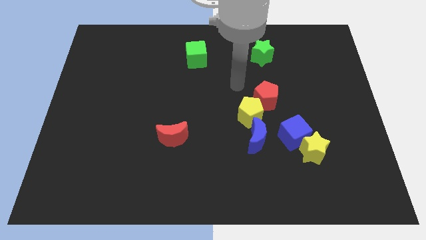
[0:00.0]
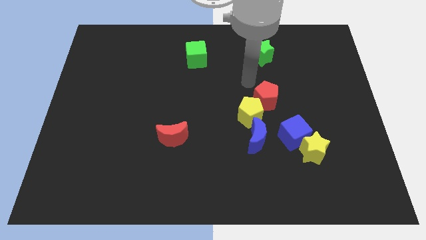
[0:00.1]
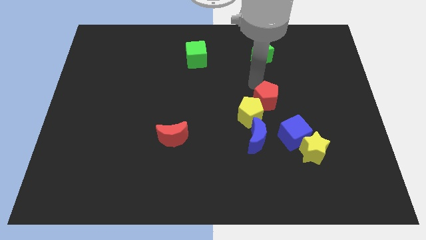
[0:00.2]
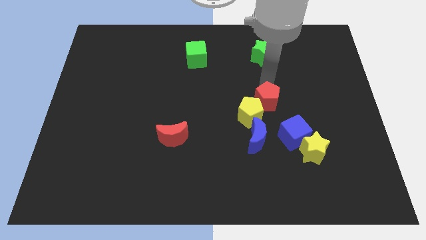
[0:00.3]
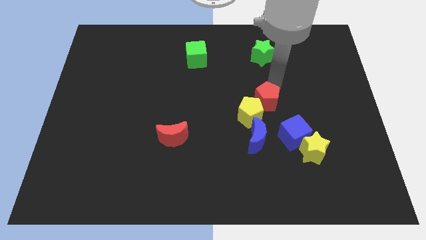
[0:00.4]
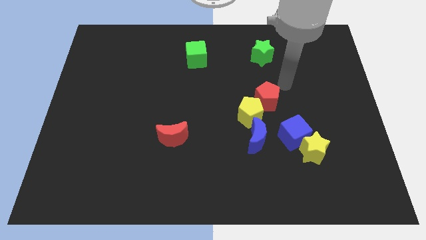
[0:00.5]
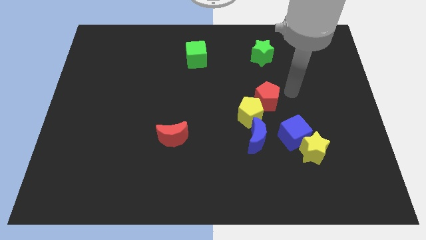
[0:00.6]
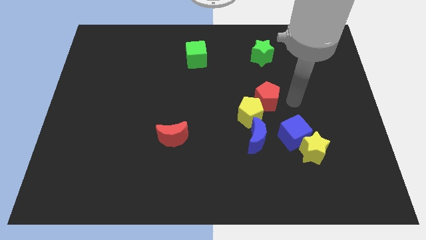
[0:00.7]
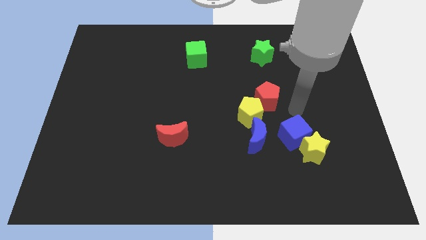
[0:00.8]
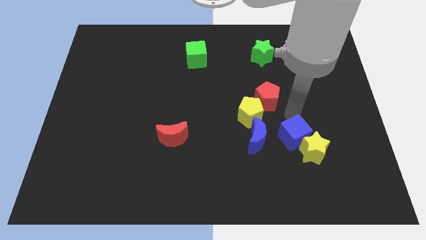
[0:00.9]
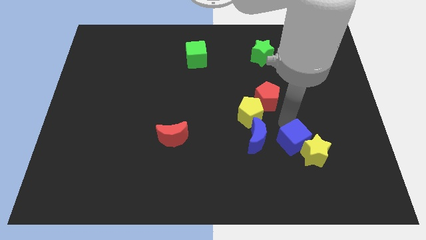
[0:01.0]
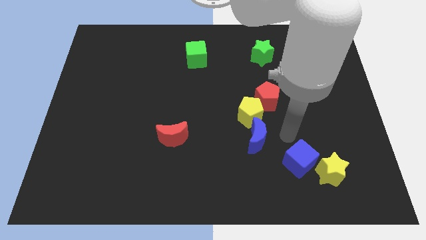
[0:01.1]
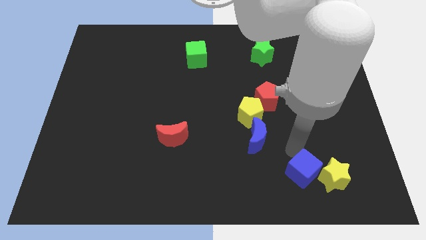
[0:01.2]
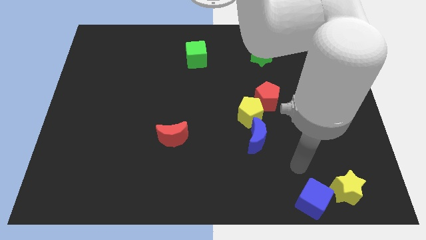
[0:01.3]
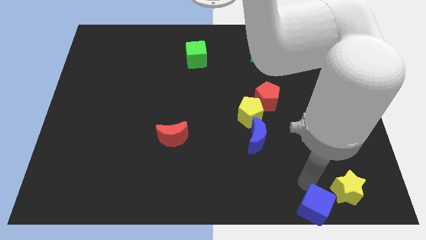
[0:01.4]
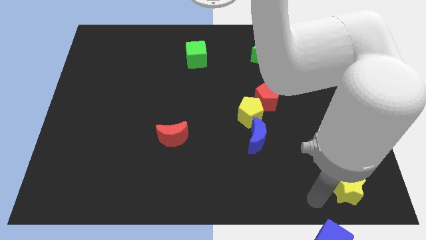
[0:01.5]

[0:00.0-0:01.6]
move the yellow star away from the blue cube

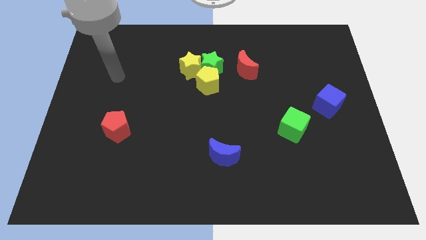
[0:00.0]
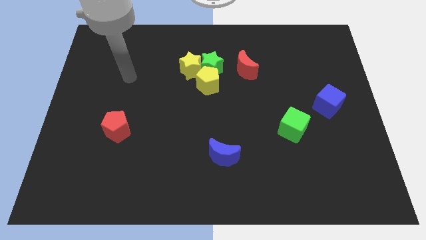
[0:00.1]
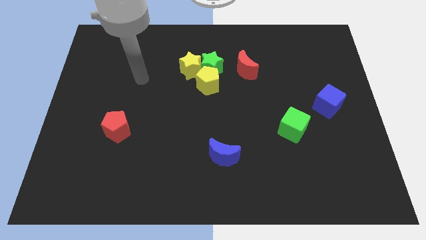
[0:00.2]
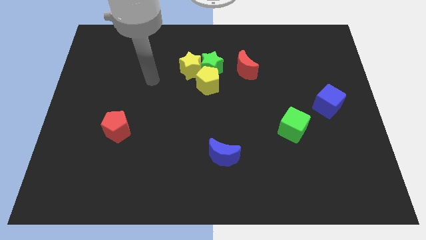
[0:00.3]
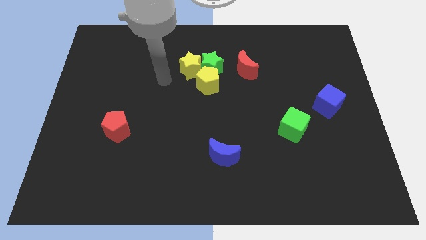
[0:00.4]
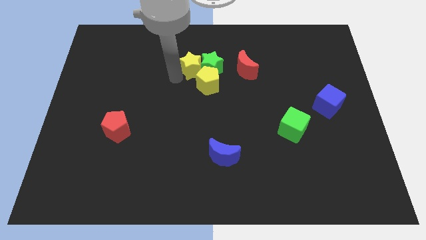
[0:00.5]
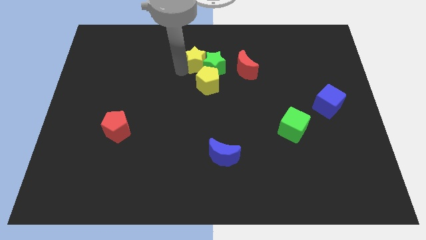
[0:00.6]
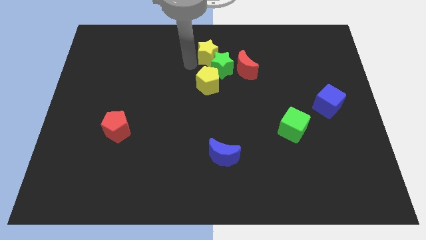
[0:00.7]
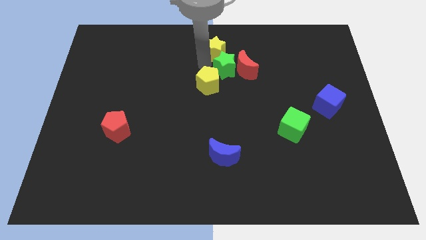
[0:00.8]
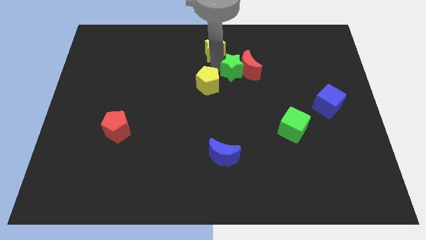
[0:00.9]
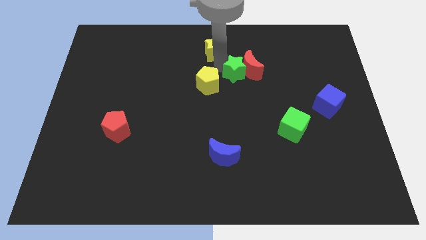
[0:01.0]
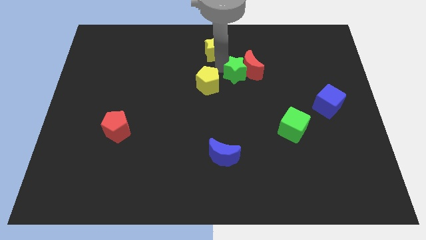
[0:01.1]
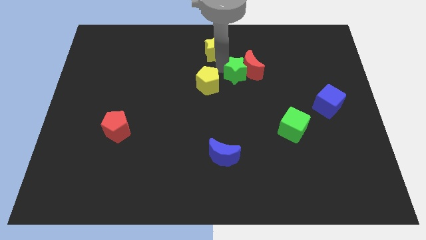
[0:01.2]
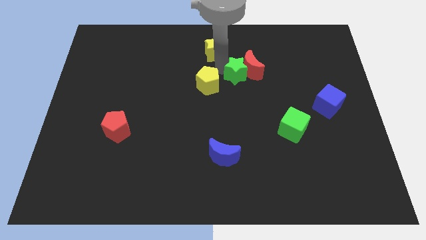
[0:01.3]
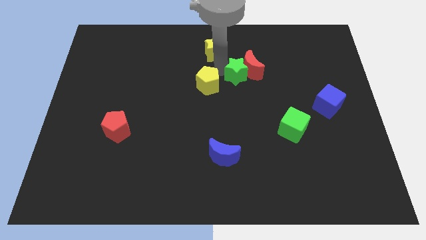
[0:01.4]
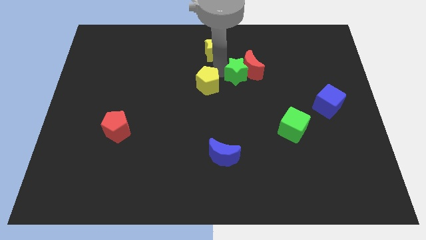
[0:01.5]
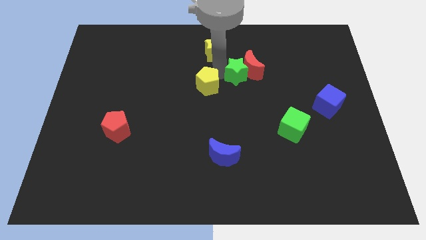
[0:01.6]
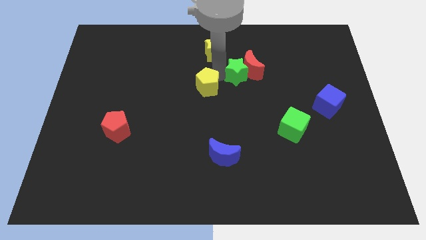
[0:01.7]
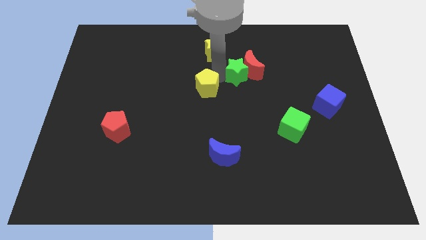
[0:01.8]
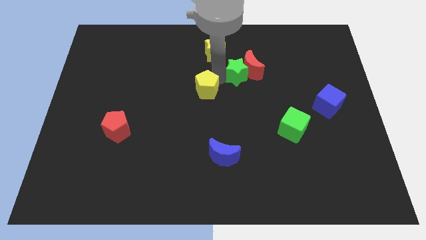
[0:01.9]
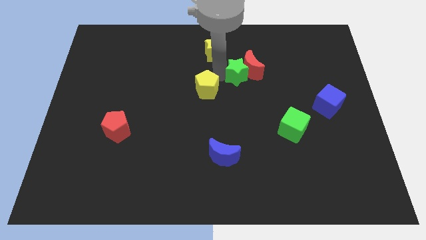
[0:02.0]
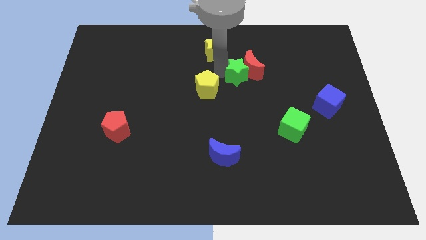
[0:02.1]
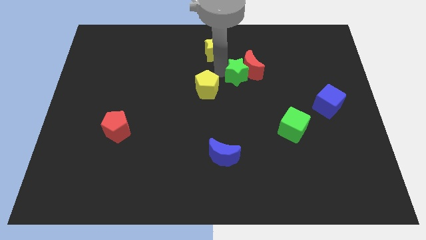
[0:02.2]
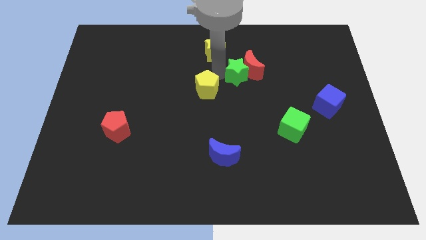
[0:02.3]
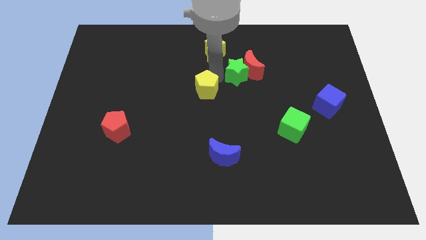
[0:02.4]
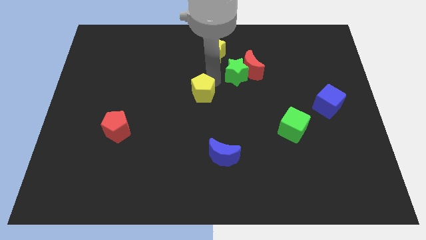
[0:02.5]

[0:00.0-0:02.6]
move the yellow pentagon away from the green star and yellow star

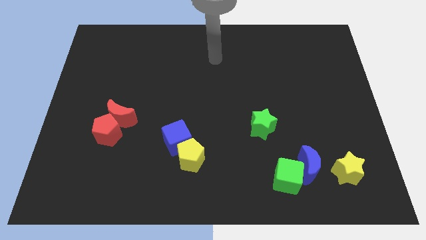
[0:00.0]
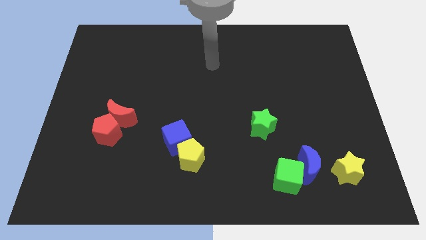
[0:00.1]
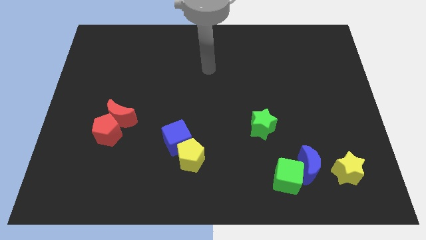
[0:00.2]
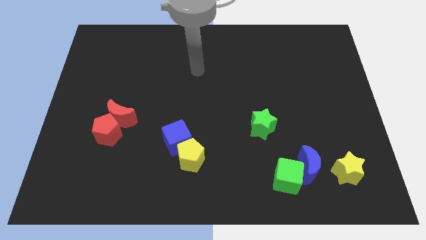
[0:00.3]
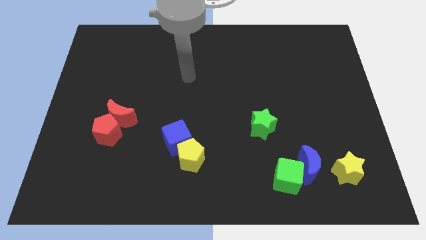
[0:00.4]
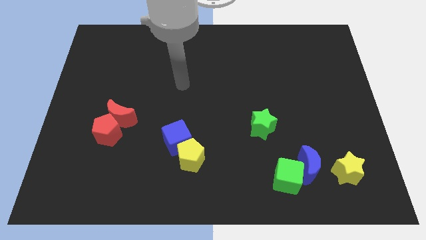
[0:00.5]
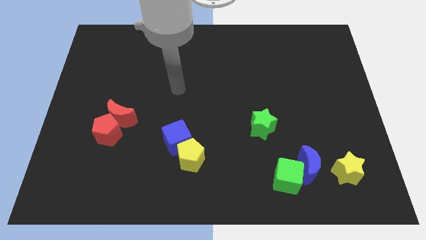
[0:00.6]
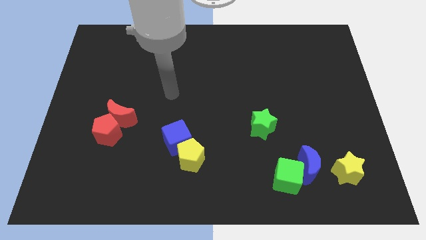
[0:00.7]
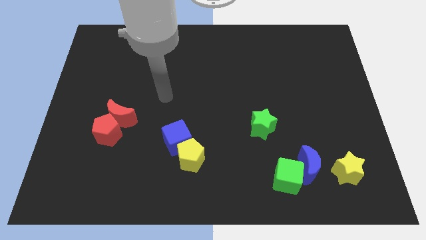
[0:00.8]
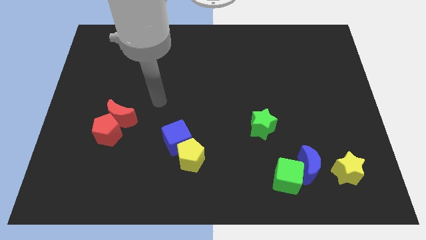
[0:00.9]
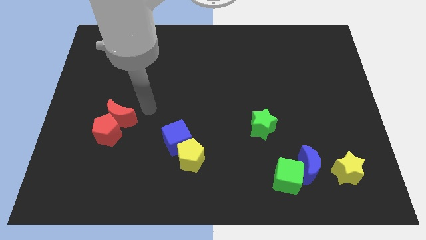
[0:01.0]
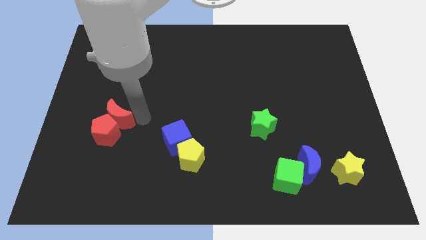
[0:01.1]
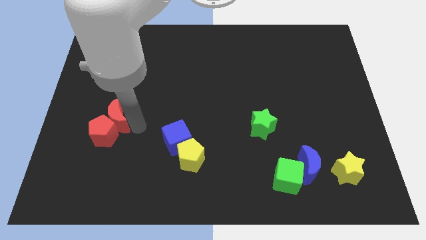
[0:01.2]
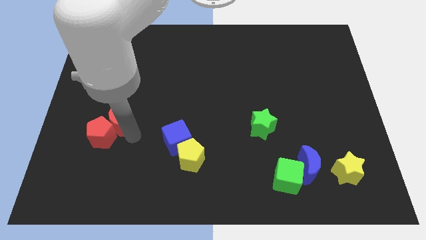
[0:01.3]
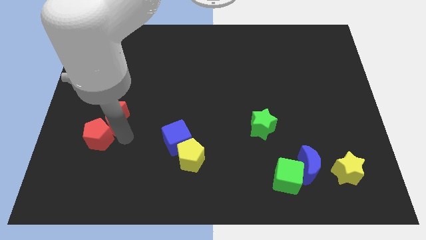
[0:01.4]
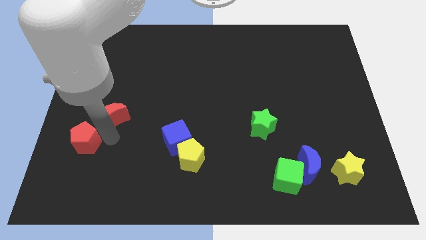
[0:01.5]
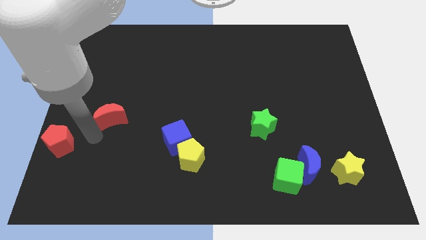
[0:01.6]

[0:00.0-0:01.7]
move the red moon away from the red pentagon

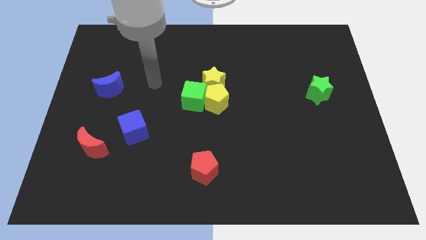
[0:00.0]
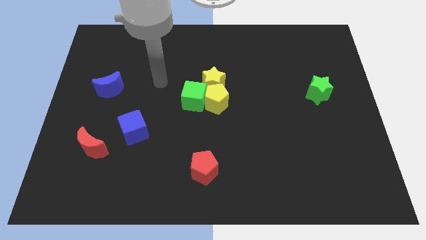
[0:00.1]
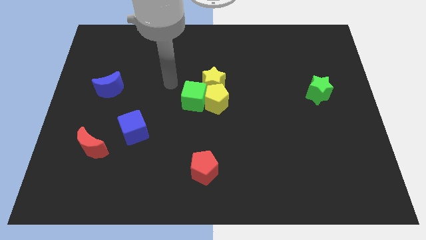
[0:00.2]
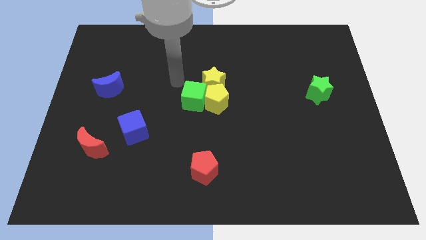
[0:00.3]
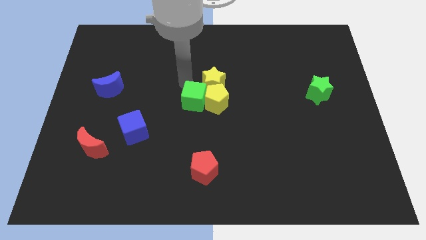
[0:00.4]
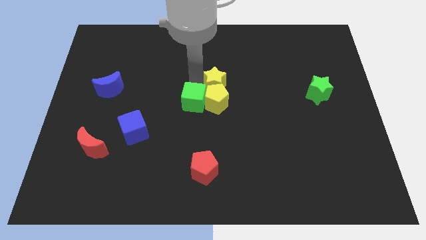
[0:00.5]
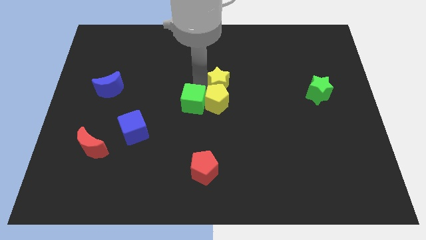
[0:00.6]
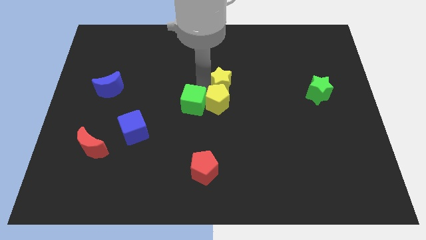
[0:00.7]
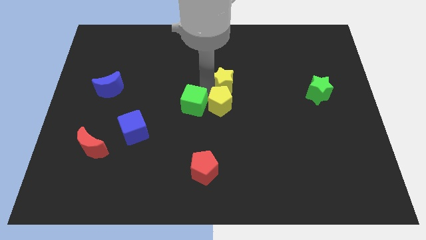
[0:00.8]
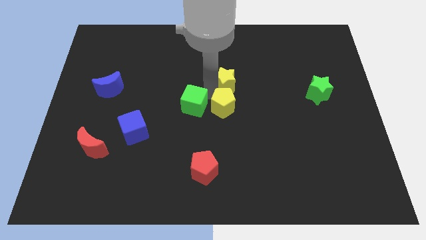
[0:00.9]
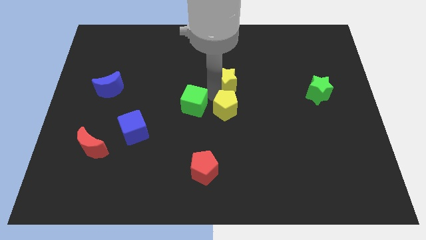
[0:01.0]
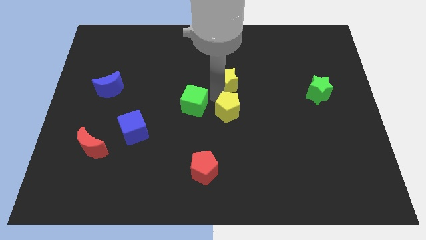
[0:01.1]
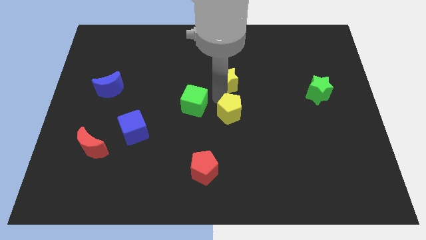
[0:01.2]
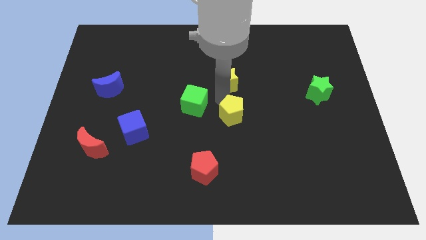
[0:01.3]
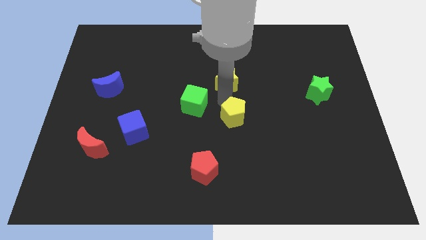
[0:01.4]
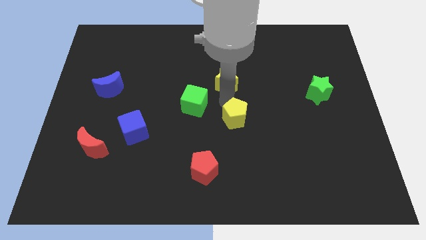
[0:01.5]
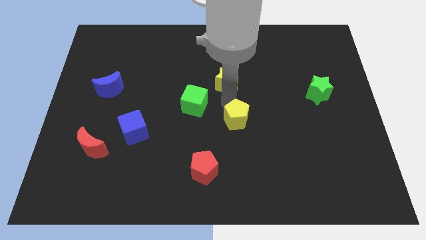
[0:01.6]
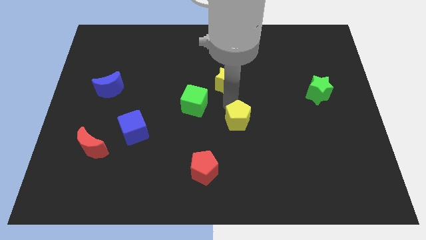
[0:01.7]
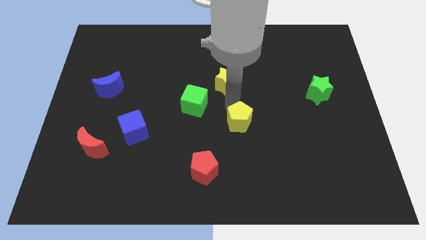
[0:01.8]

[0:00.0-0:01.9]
separate the yellow pentagon from the green cube and yellow star

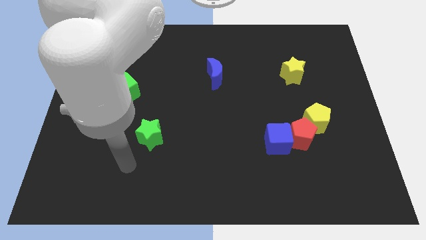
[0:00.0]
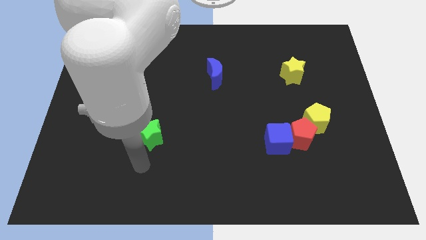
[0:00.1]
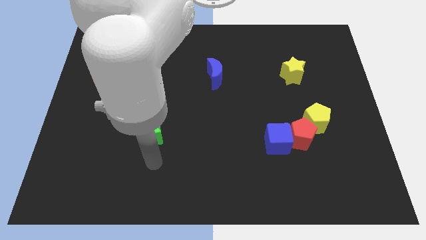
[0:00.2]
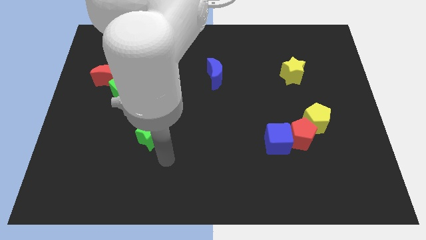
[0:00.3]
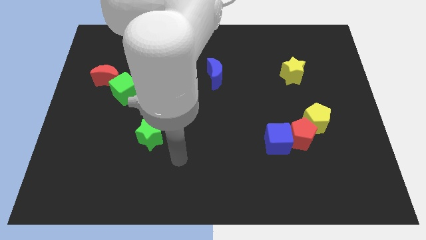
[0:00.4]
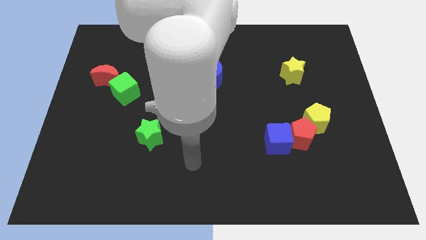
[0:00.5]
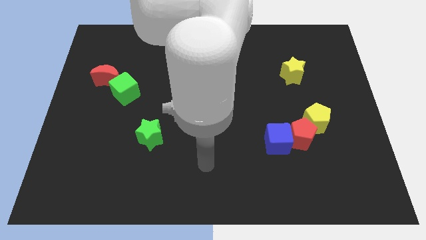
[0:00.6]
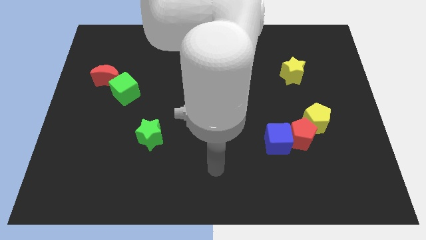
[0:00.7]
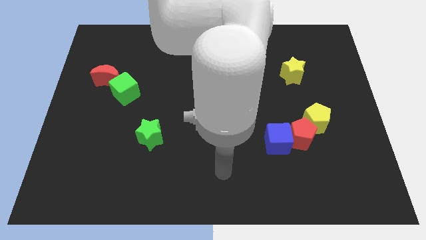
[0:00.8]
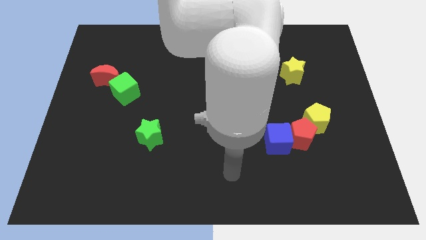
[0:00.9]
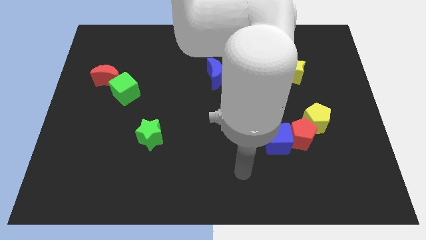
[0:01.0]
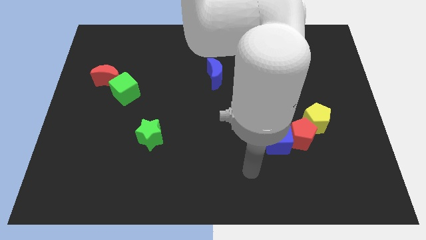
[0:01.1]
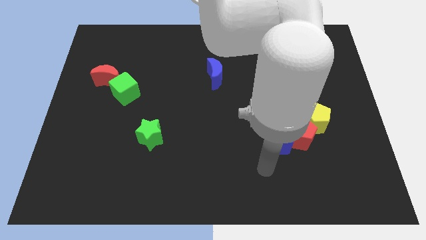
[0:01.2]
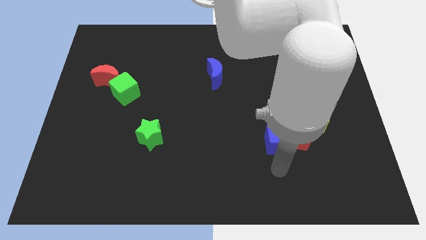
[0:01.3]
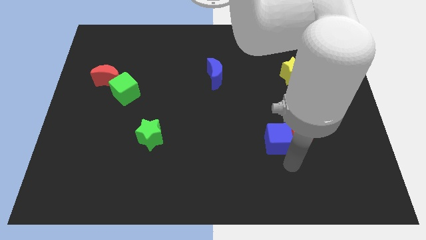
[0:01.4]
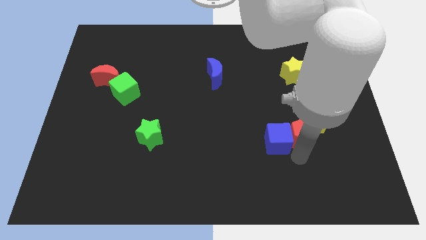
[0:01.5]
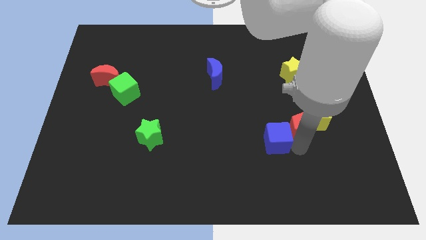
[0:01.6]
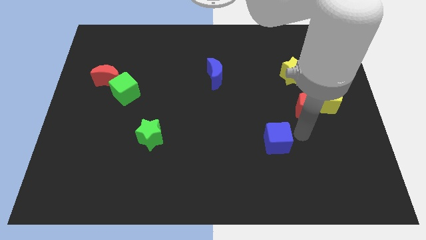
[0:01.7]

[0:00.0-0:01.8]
move the blue cube away from the red pentagon
